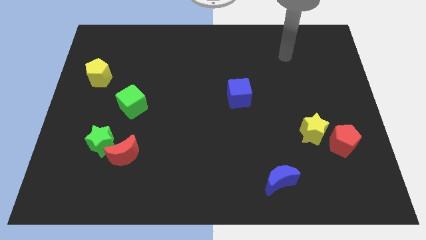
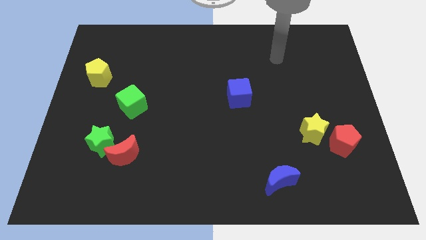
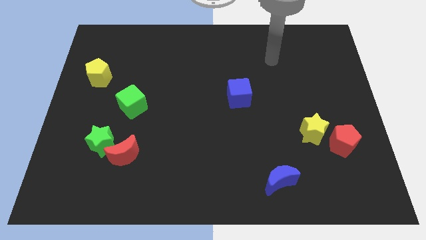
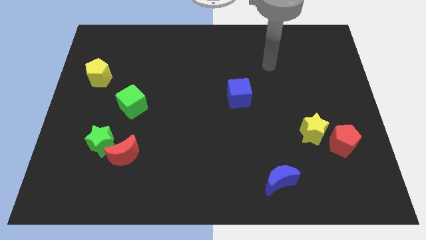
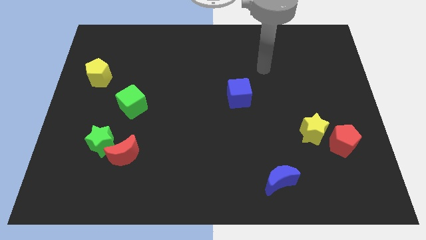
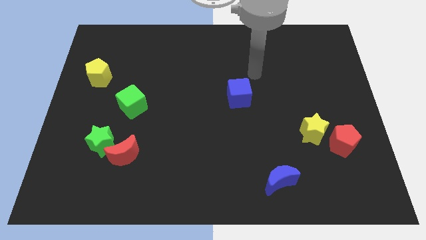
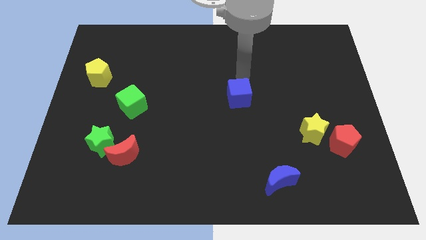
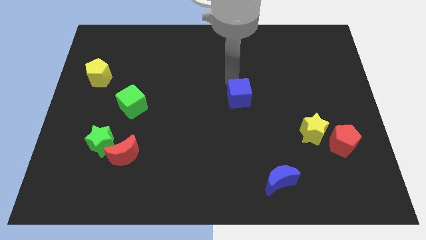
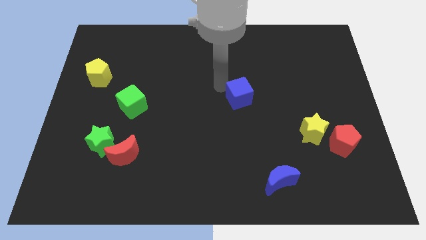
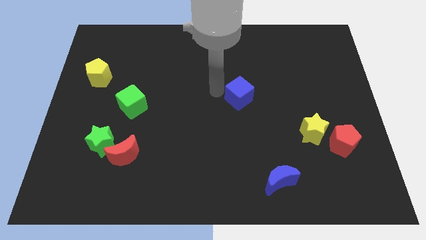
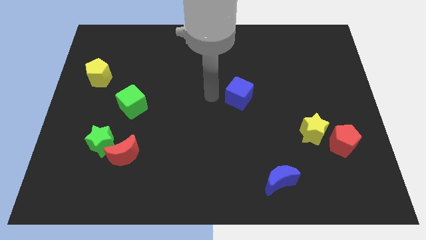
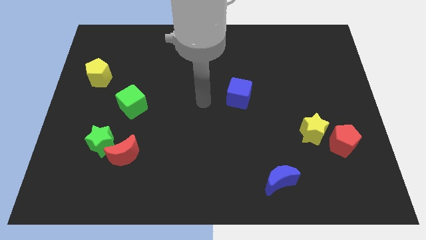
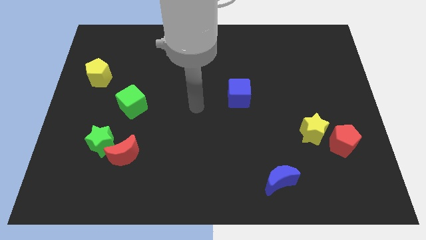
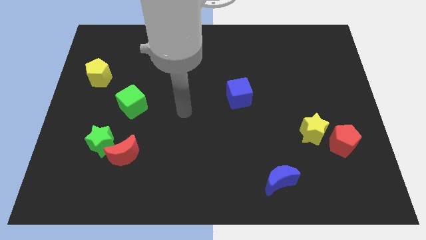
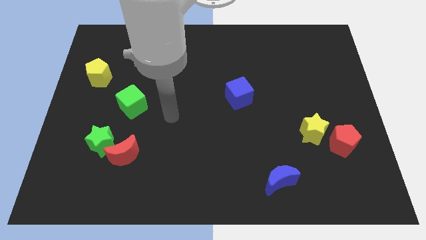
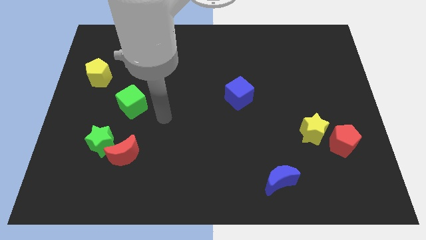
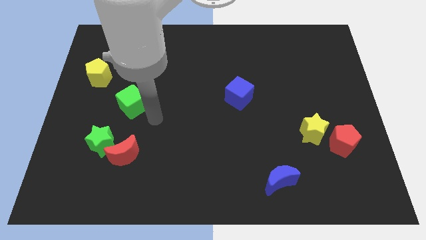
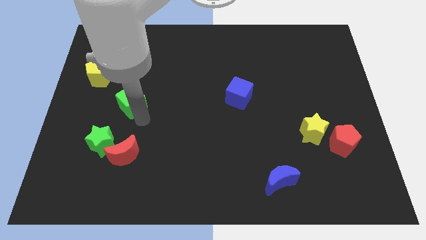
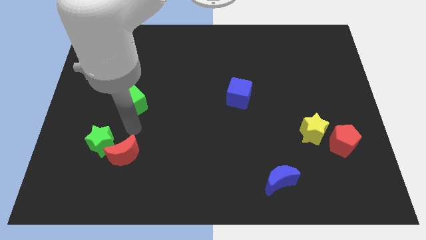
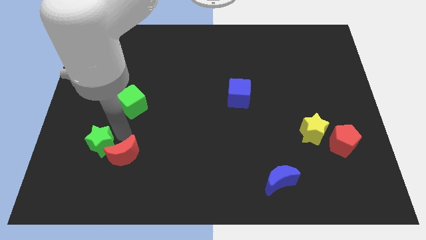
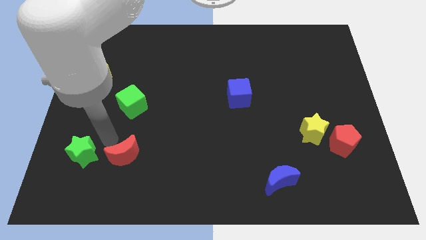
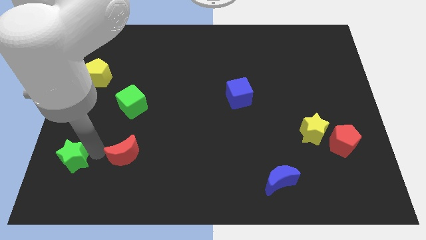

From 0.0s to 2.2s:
move the red moon away from the green star

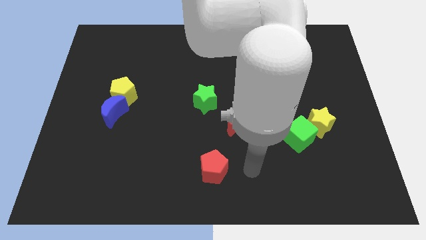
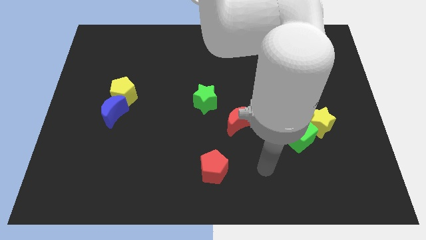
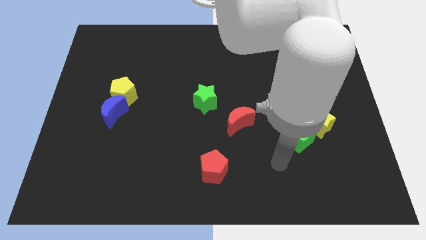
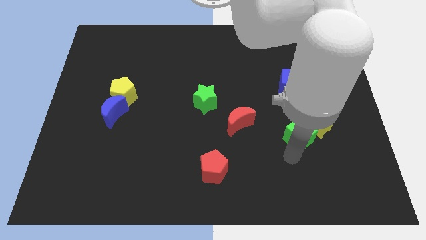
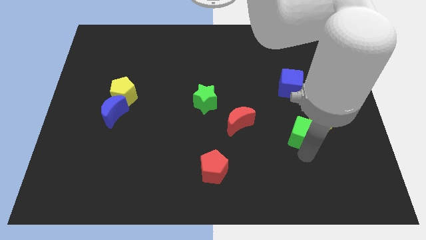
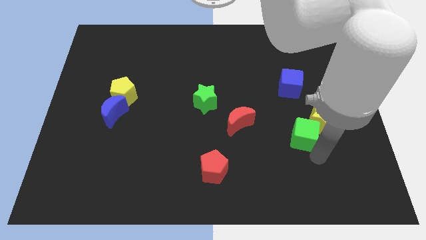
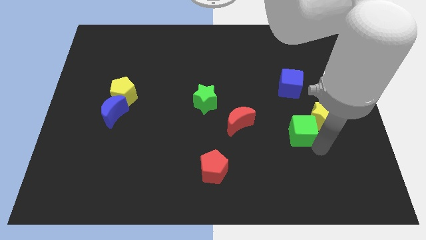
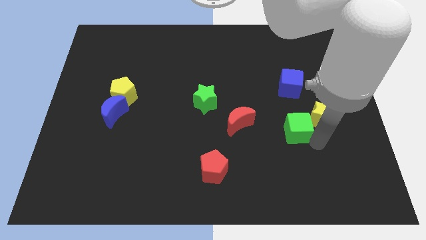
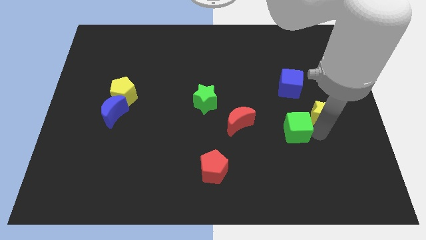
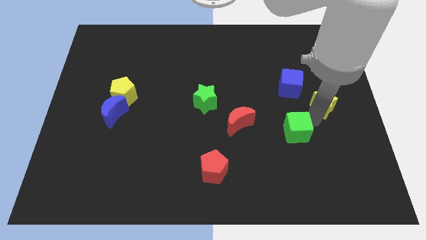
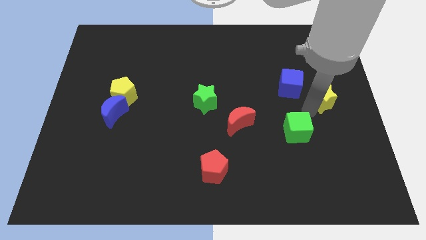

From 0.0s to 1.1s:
pull the green cube apart from the yellow star

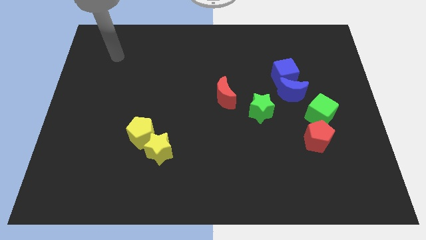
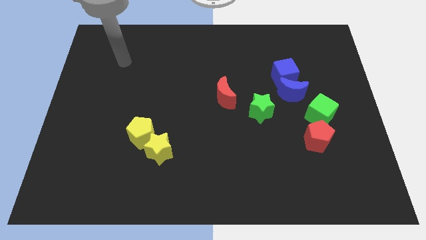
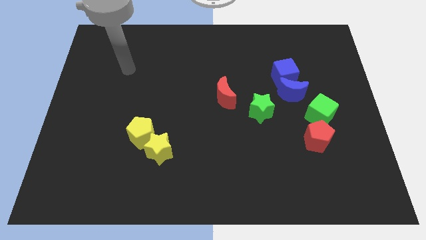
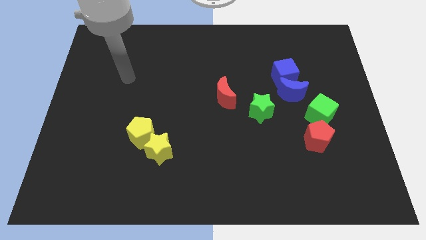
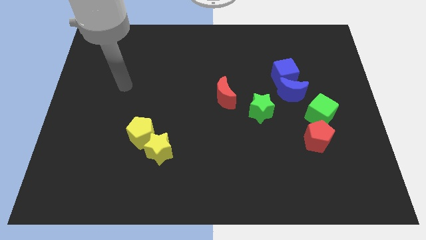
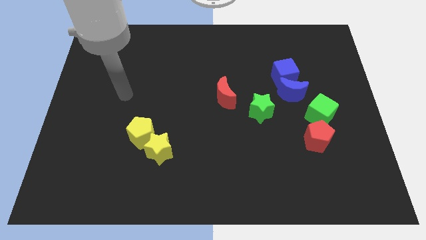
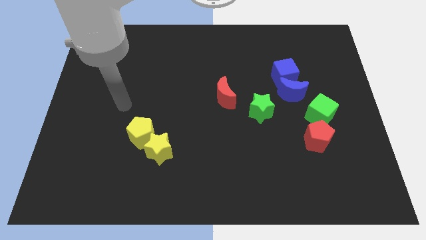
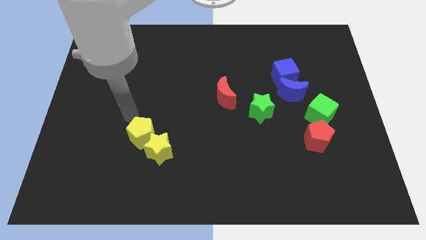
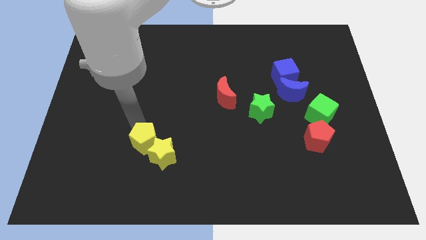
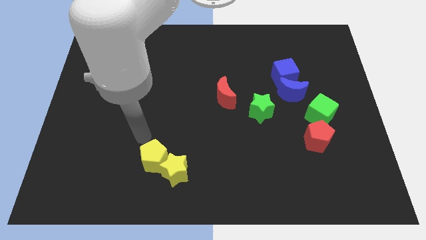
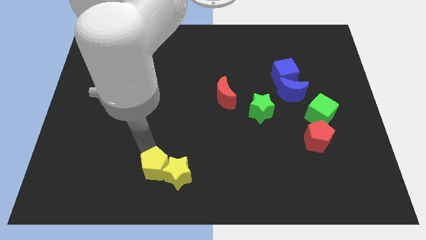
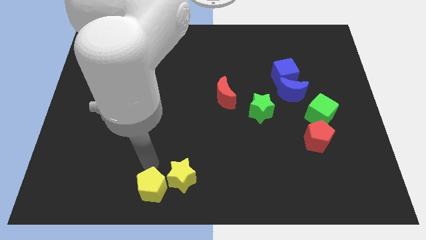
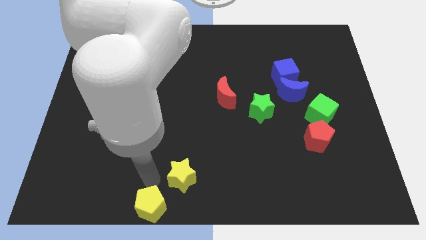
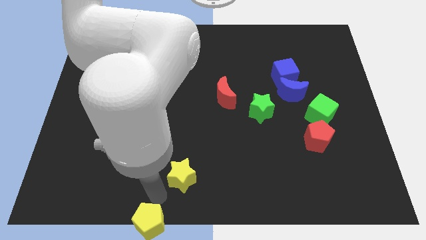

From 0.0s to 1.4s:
separate the yellow star from the yellow pentagon

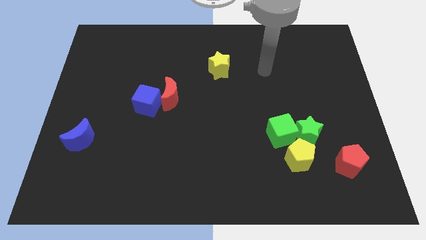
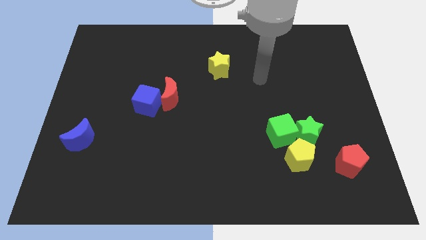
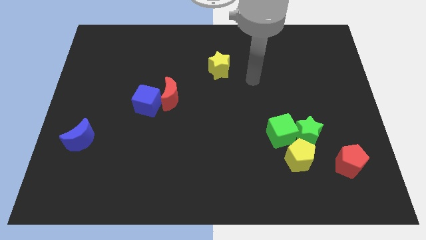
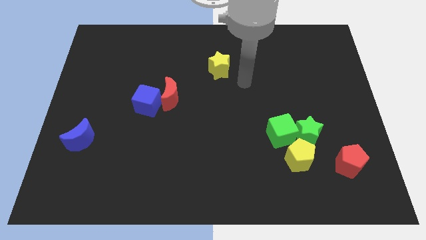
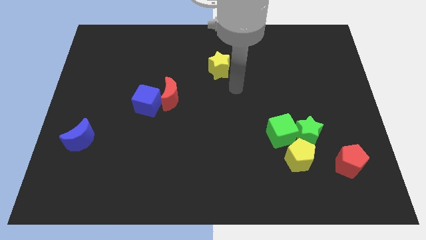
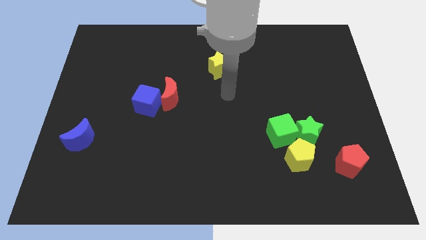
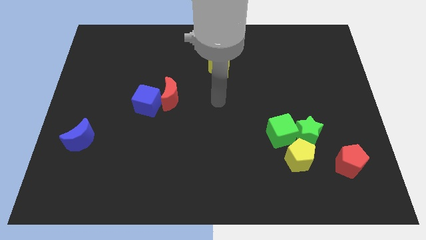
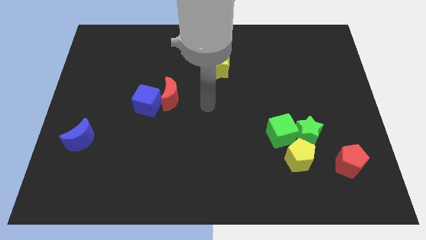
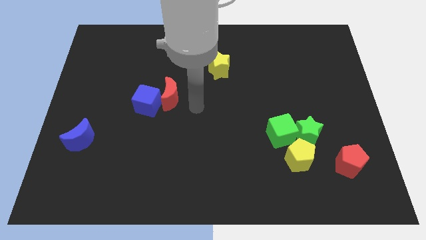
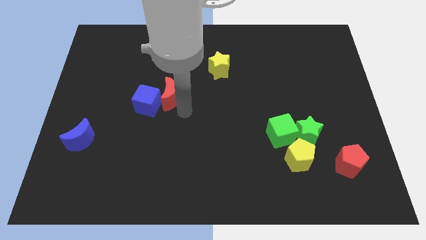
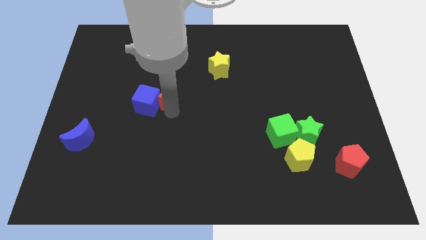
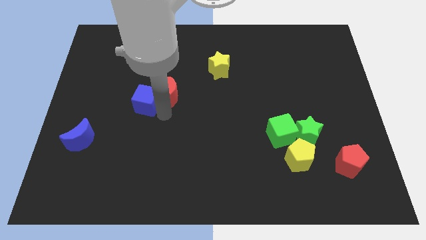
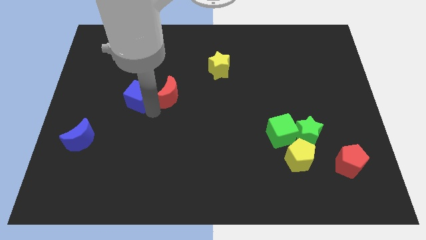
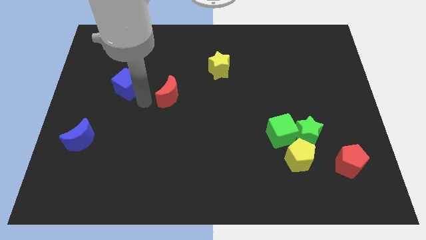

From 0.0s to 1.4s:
move the red moon away from the blue cube

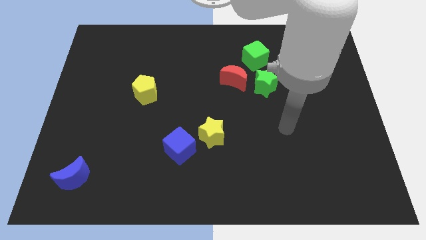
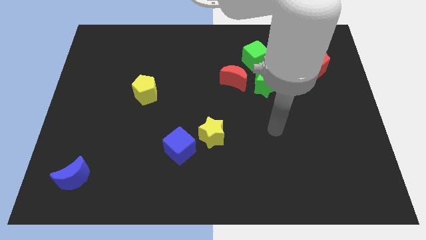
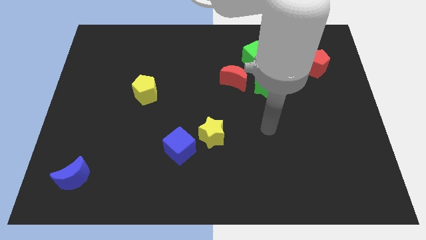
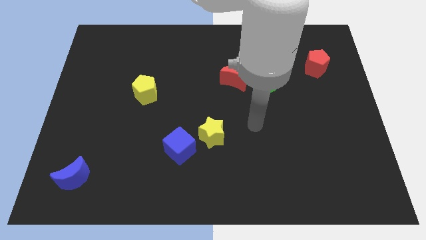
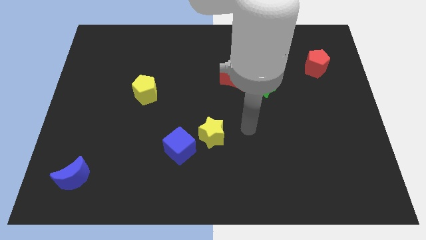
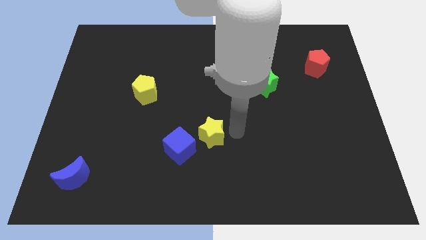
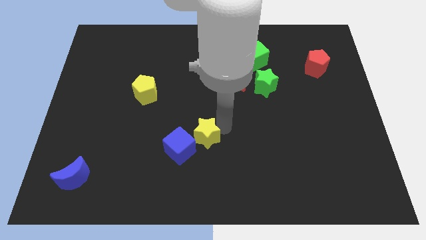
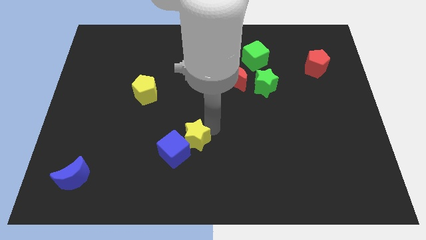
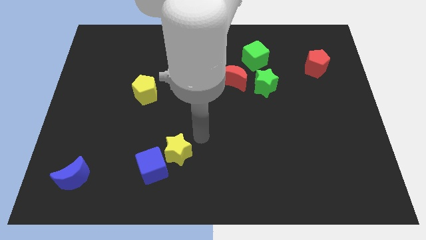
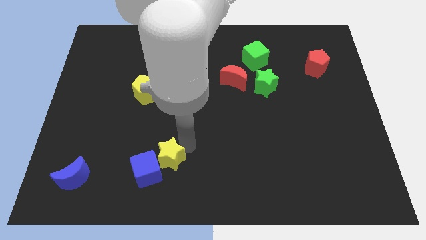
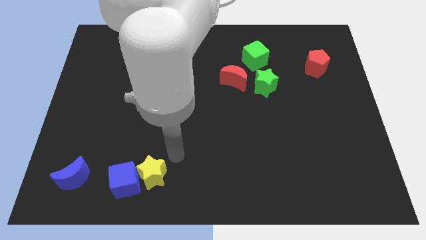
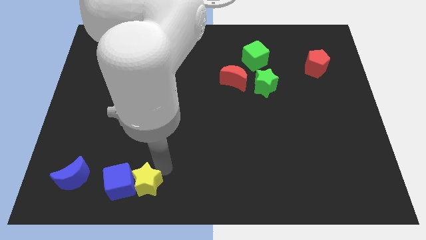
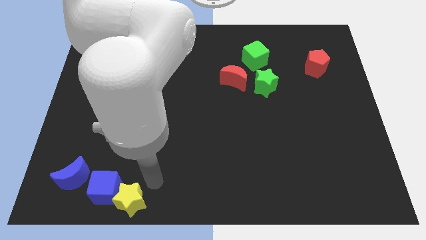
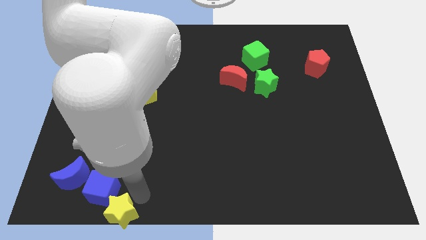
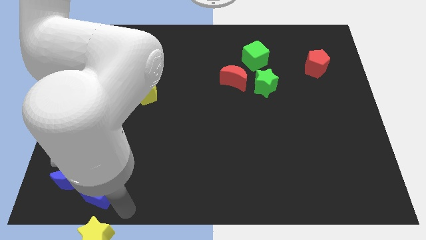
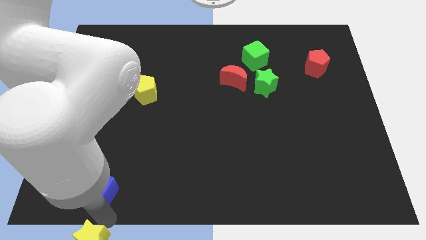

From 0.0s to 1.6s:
move the blue cube away from the yellow star

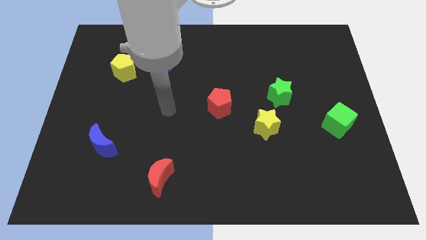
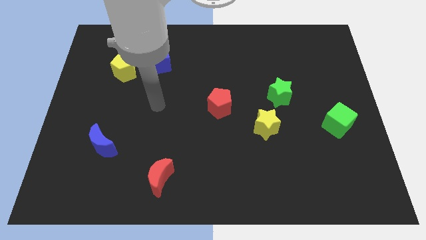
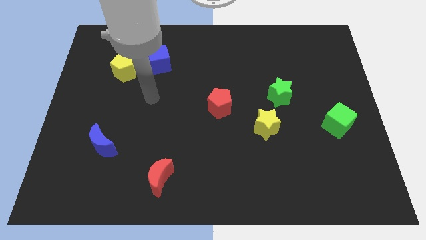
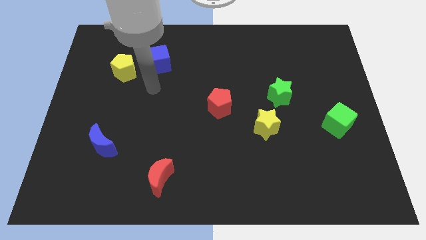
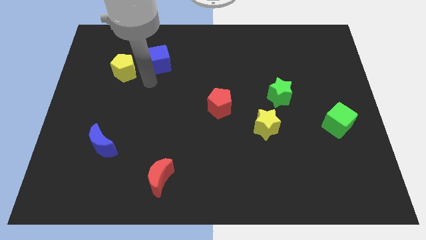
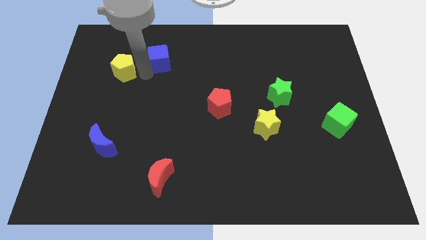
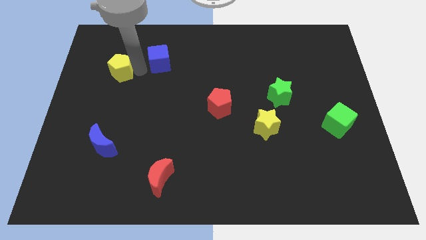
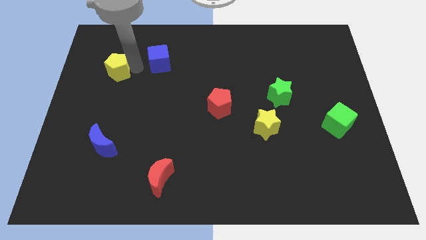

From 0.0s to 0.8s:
move the blue cube away from the yellow pentagon

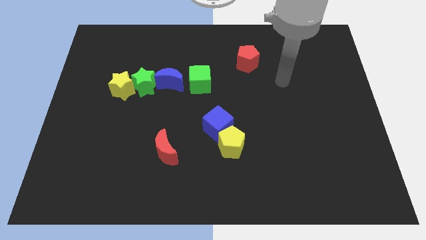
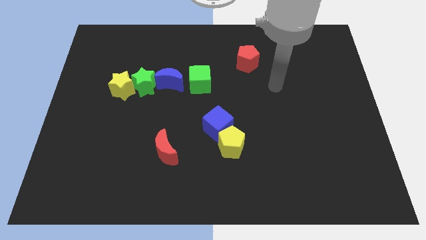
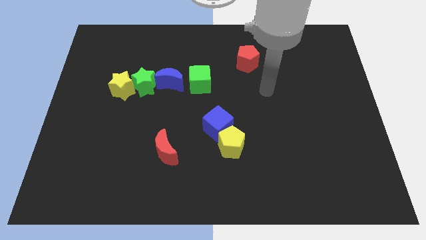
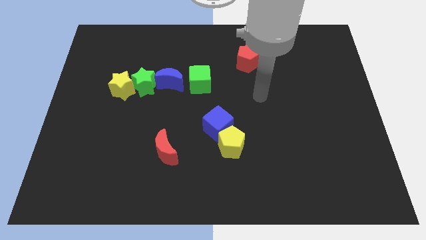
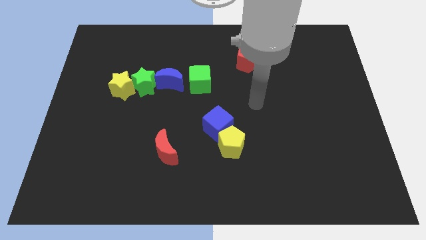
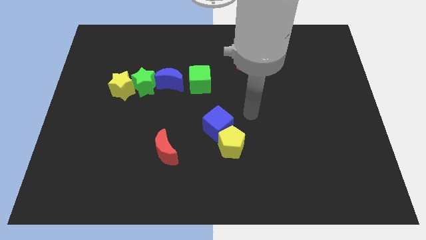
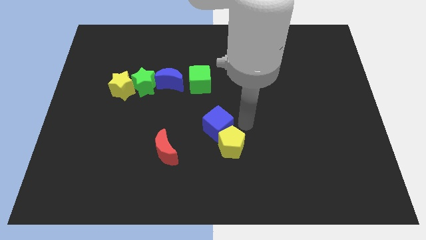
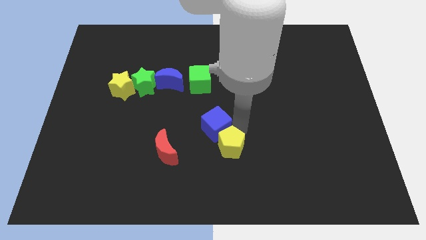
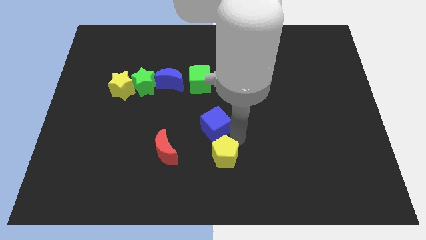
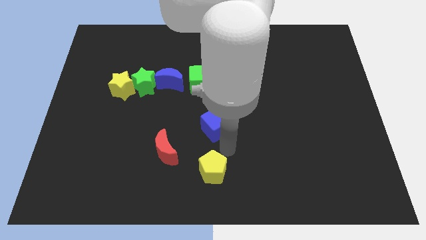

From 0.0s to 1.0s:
separate the blue cube from the yellow pentagon

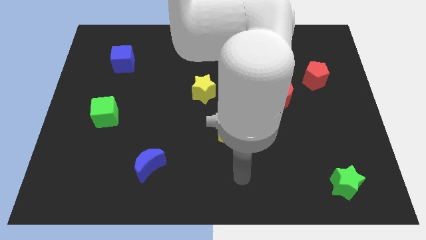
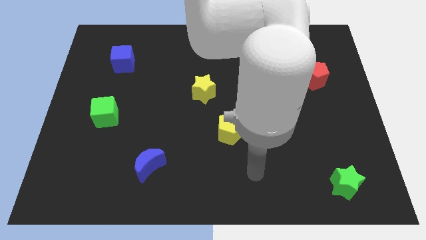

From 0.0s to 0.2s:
pull the red moon apart from the red pentagon
